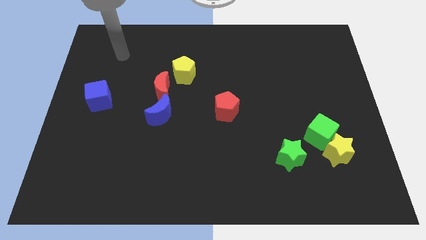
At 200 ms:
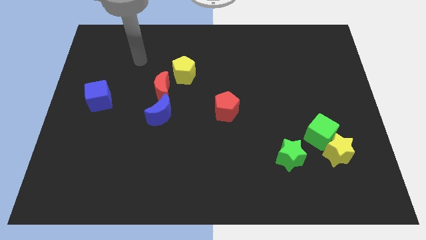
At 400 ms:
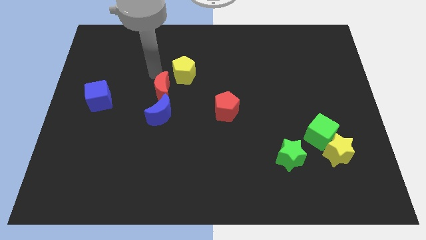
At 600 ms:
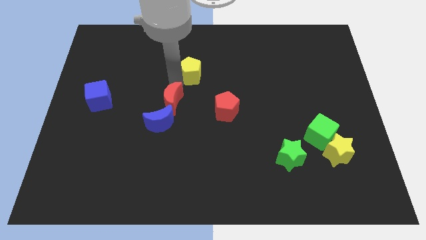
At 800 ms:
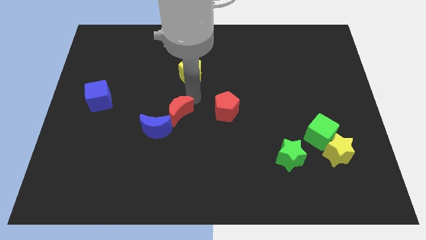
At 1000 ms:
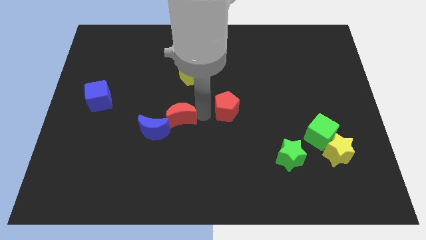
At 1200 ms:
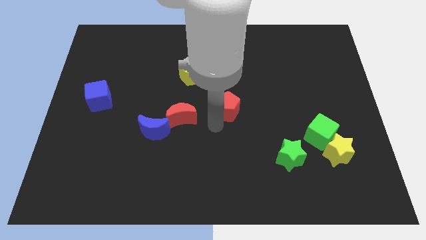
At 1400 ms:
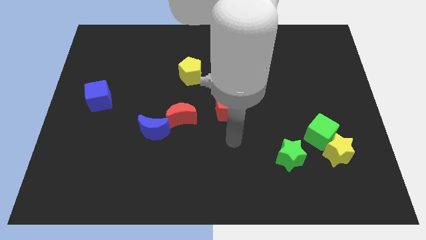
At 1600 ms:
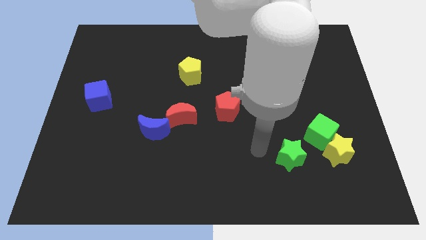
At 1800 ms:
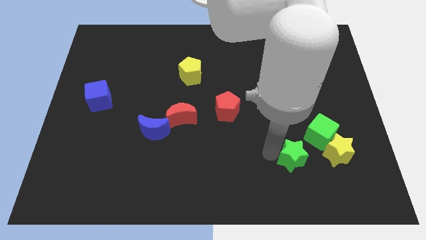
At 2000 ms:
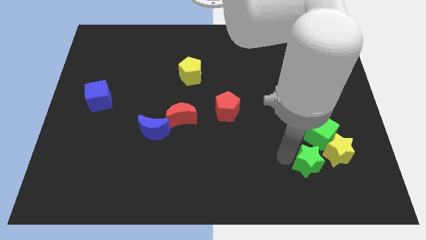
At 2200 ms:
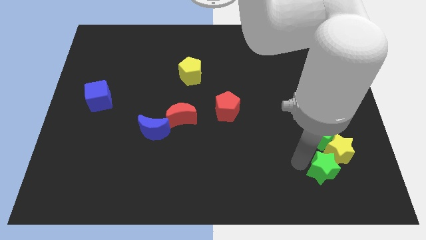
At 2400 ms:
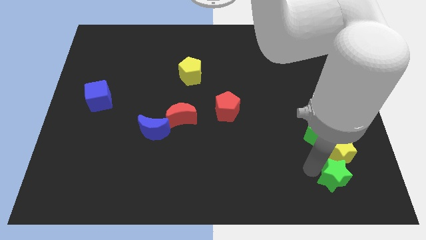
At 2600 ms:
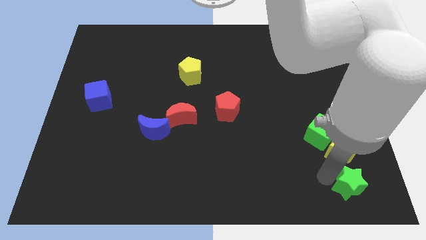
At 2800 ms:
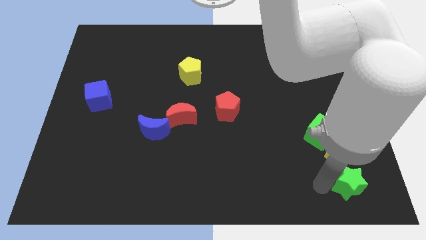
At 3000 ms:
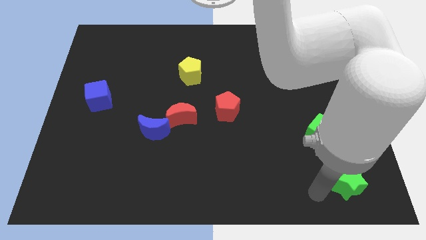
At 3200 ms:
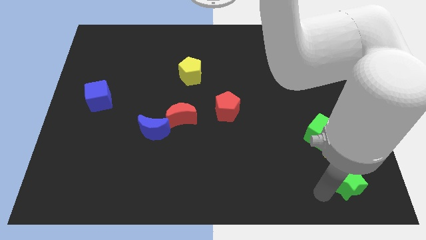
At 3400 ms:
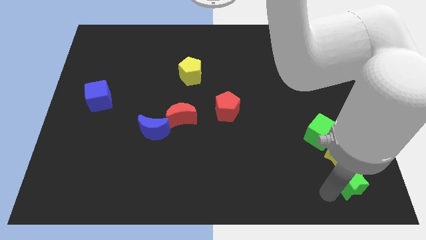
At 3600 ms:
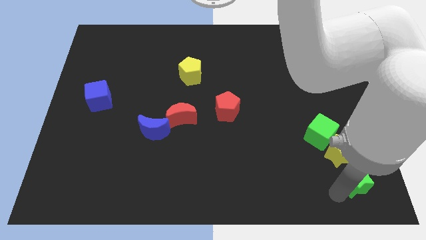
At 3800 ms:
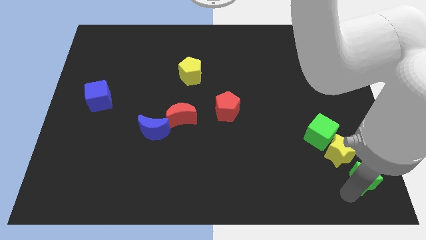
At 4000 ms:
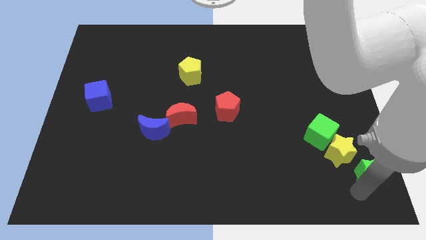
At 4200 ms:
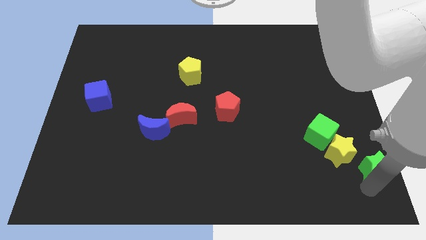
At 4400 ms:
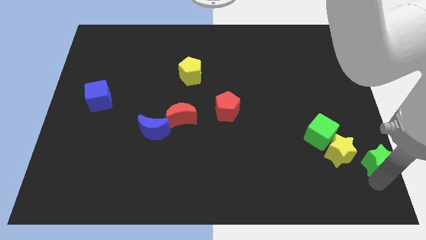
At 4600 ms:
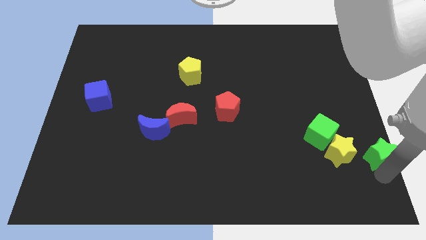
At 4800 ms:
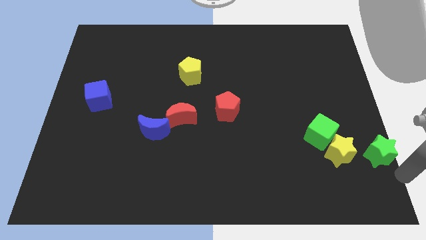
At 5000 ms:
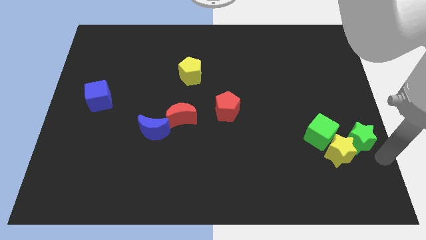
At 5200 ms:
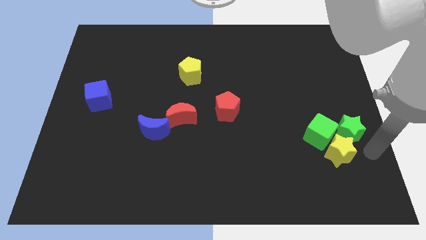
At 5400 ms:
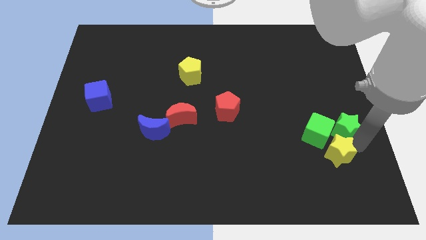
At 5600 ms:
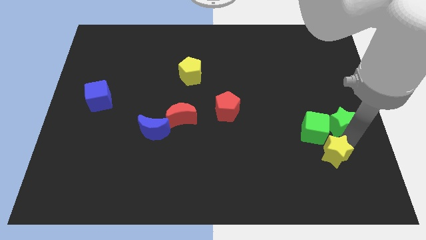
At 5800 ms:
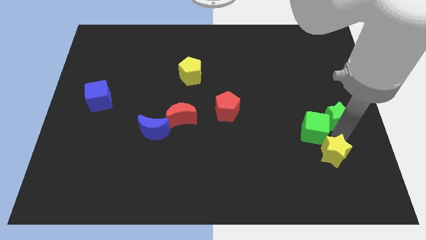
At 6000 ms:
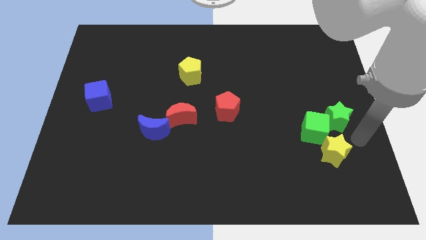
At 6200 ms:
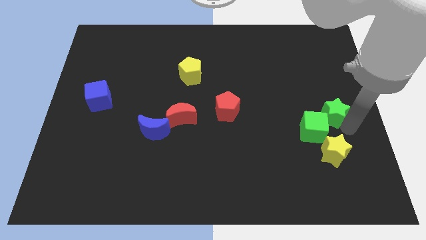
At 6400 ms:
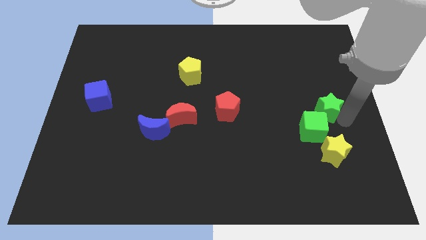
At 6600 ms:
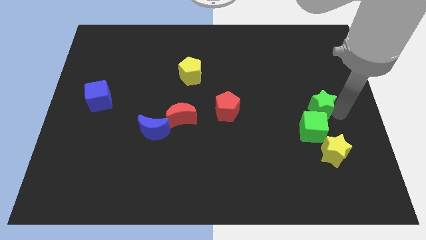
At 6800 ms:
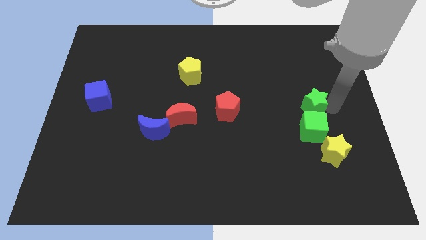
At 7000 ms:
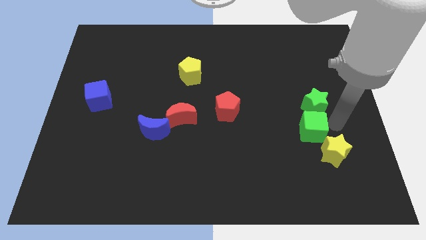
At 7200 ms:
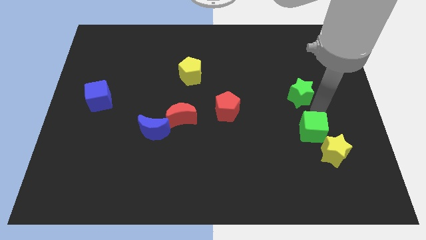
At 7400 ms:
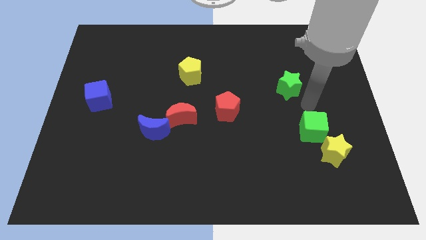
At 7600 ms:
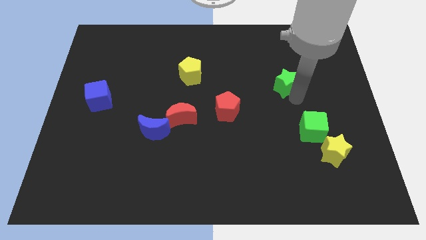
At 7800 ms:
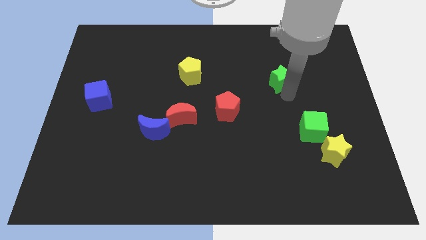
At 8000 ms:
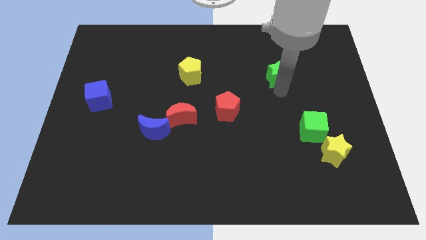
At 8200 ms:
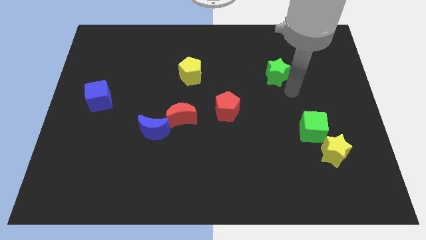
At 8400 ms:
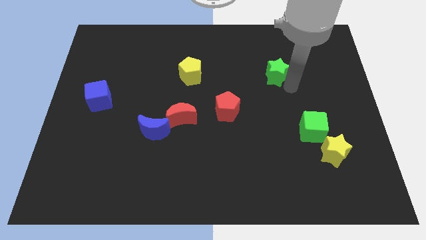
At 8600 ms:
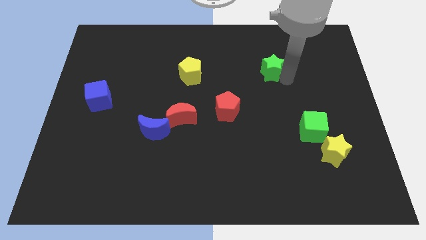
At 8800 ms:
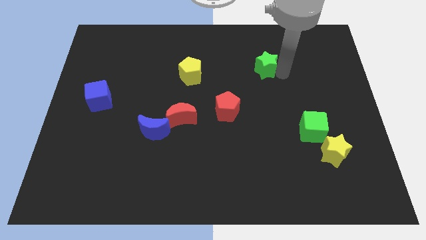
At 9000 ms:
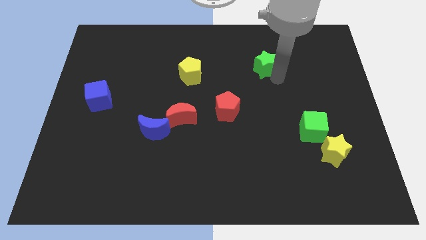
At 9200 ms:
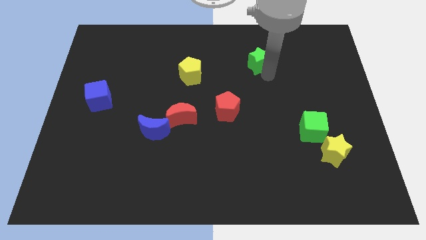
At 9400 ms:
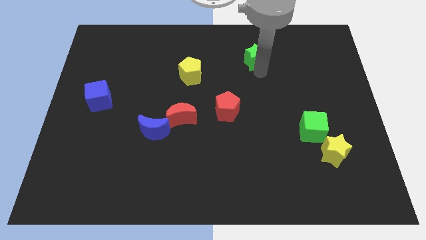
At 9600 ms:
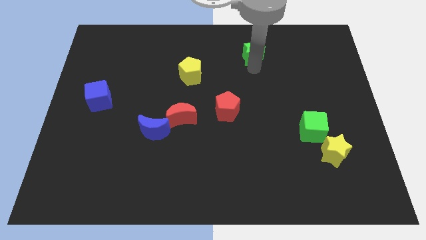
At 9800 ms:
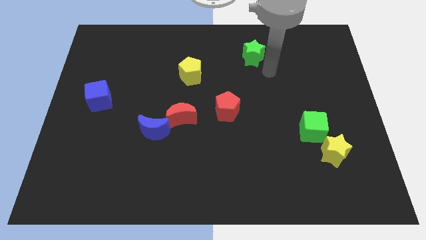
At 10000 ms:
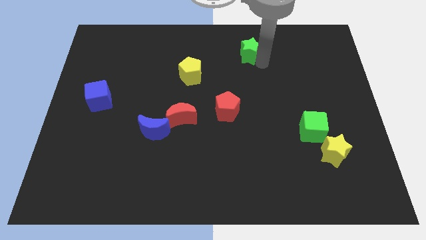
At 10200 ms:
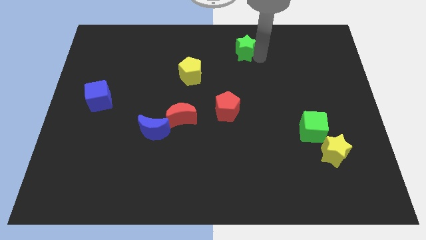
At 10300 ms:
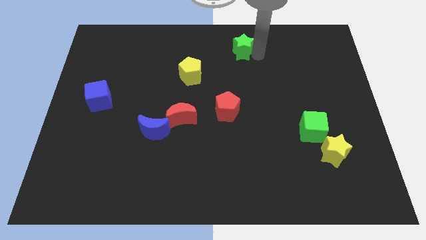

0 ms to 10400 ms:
put the green star to the top side
